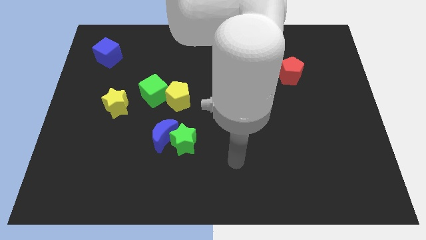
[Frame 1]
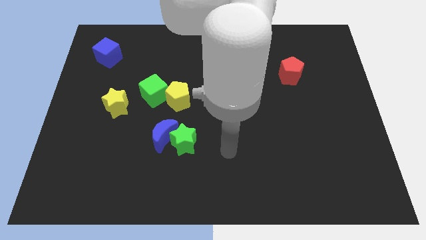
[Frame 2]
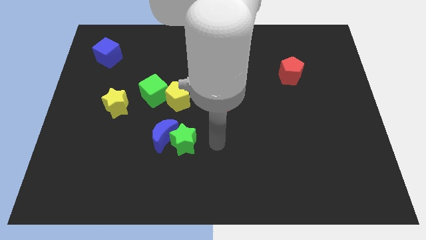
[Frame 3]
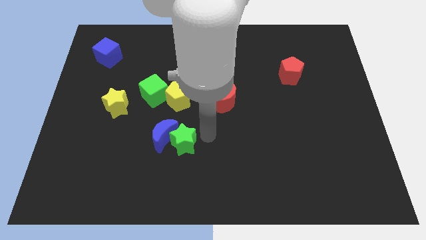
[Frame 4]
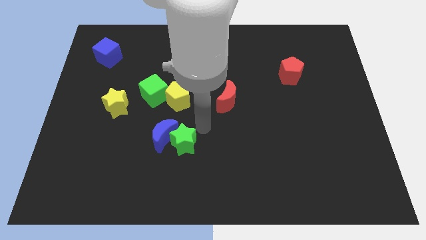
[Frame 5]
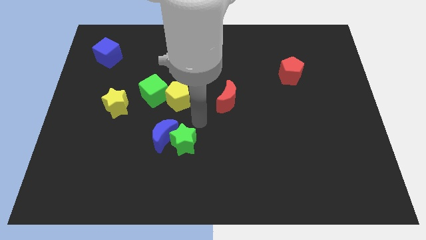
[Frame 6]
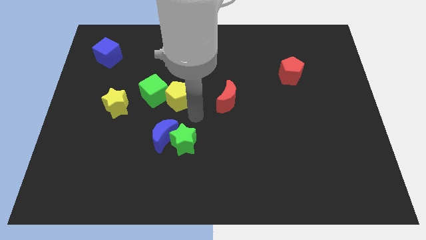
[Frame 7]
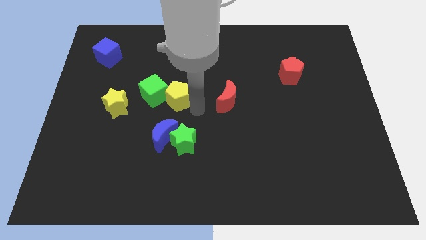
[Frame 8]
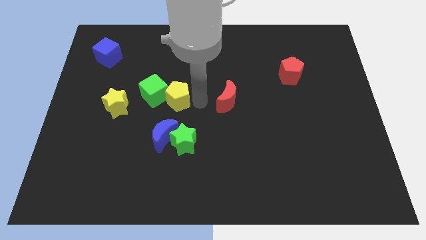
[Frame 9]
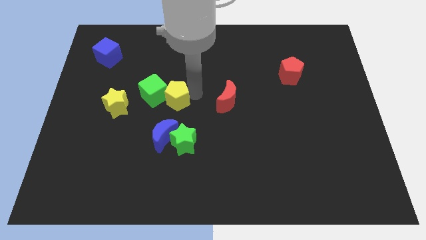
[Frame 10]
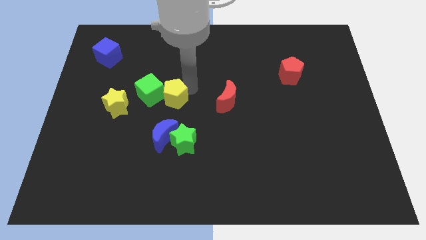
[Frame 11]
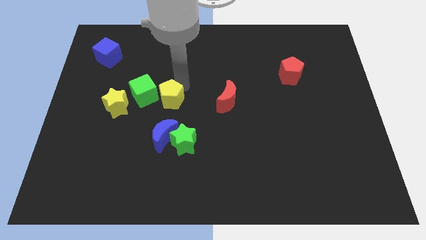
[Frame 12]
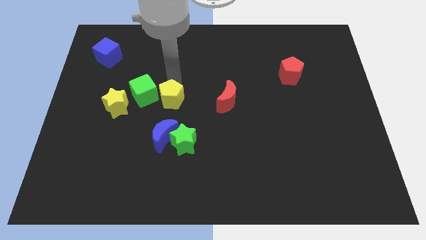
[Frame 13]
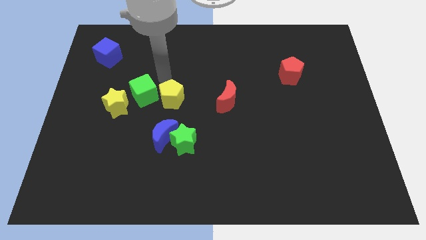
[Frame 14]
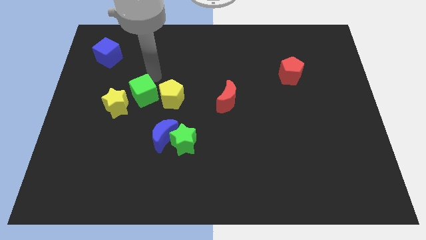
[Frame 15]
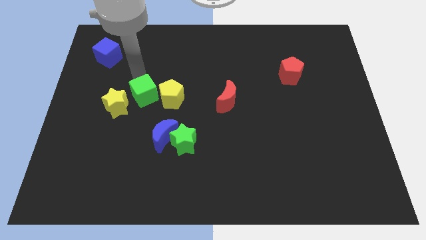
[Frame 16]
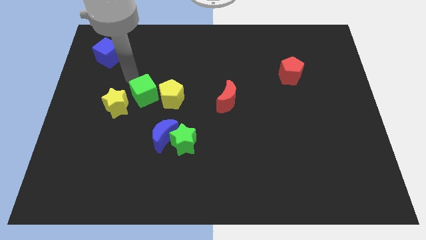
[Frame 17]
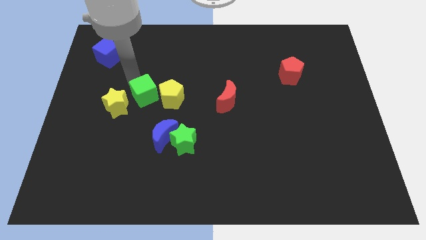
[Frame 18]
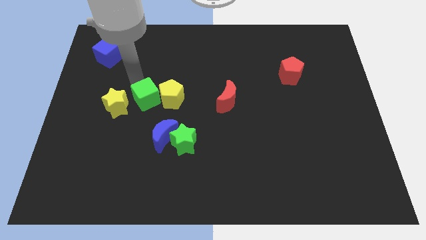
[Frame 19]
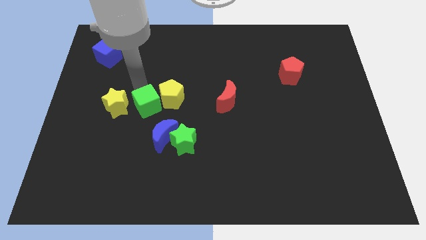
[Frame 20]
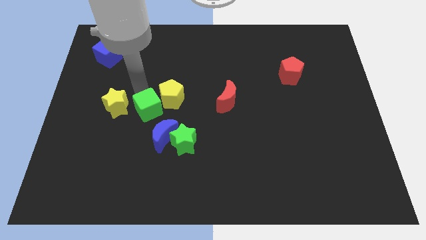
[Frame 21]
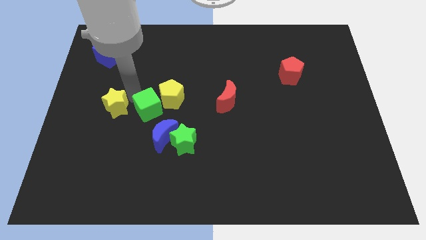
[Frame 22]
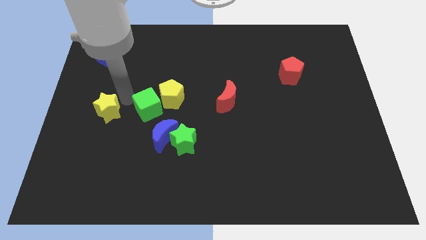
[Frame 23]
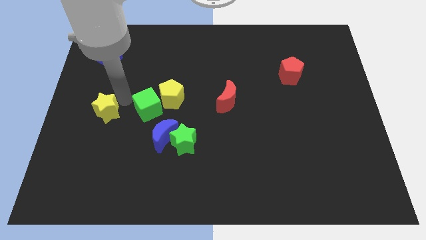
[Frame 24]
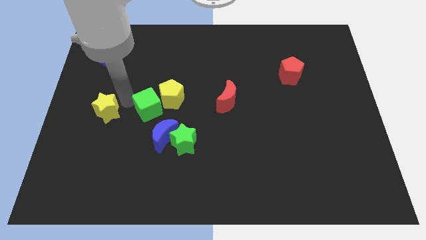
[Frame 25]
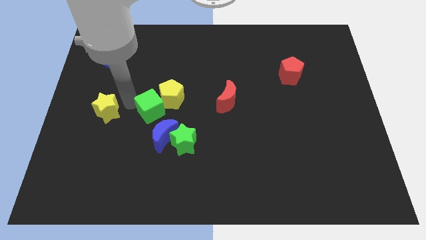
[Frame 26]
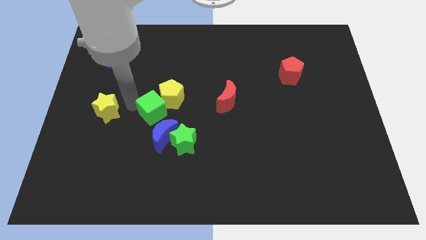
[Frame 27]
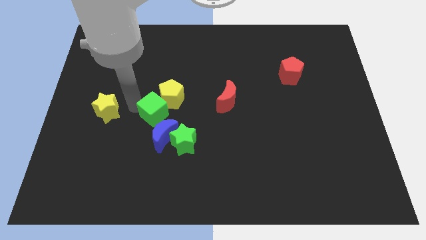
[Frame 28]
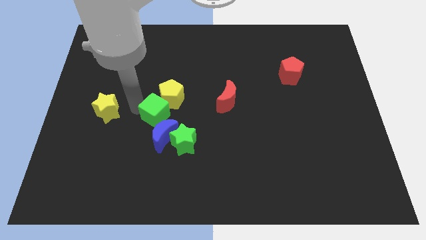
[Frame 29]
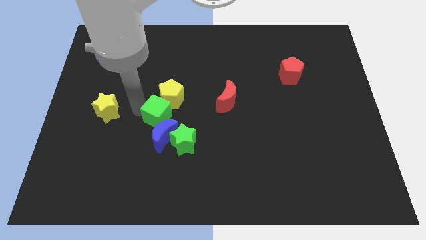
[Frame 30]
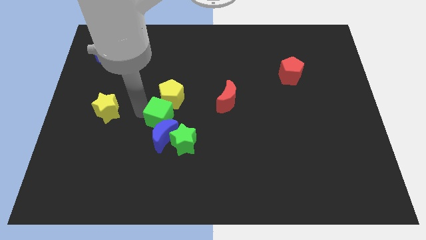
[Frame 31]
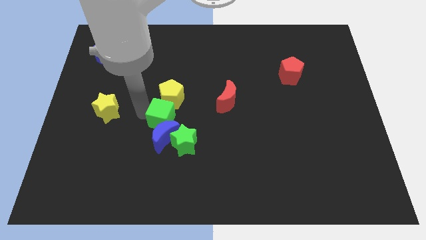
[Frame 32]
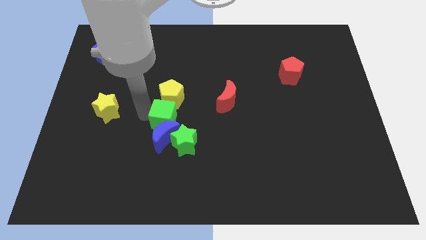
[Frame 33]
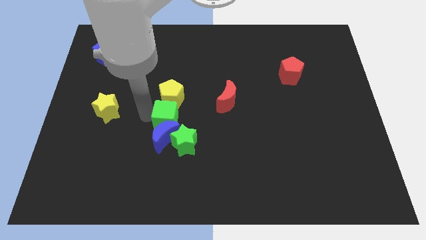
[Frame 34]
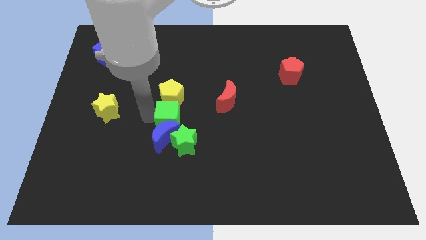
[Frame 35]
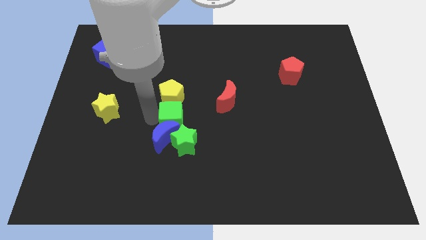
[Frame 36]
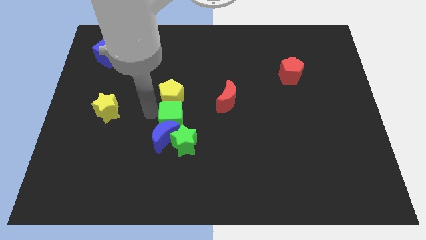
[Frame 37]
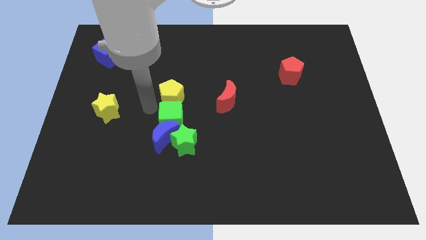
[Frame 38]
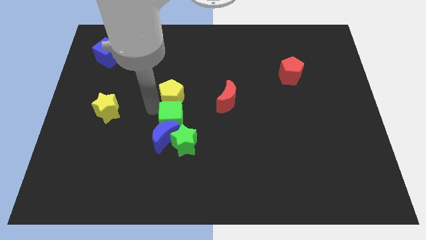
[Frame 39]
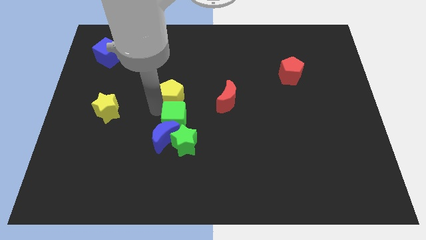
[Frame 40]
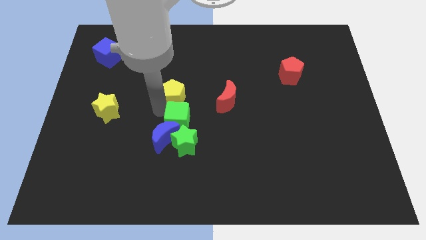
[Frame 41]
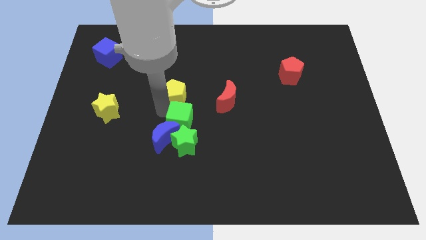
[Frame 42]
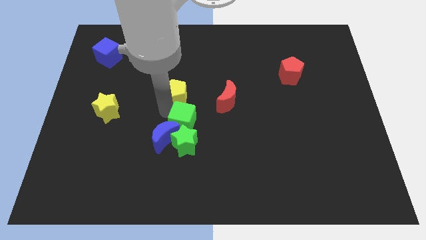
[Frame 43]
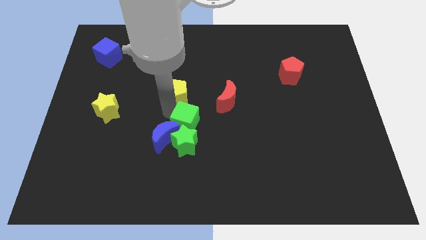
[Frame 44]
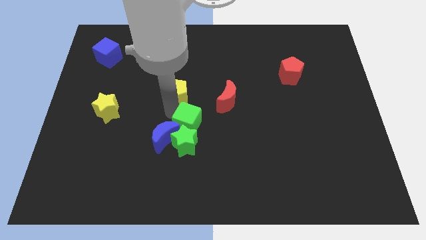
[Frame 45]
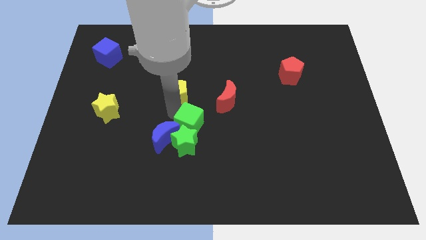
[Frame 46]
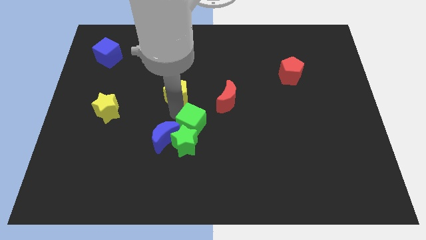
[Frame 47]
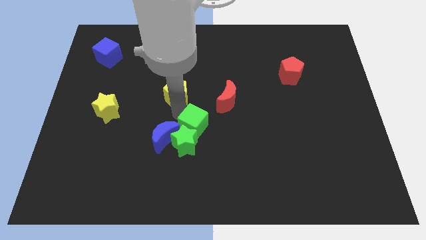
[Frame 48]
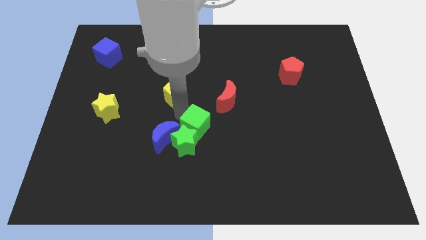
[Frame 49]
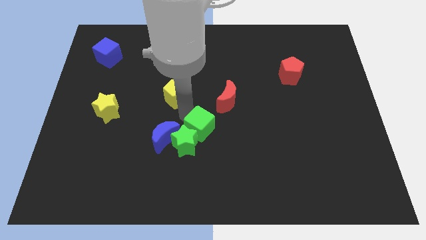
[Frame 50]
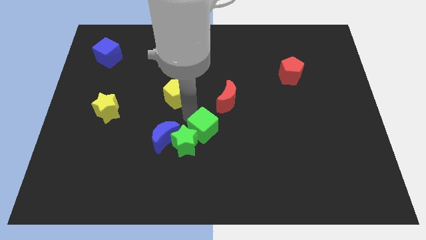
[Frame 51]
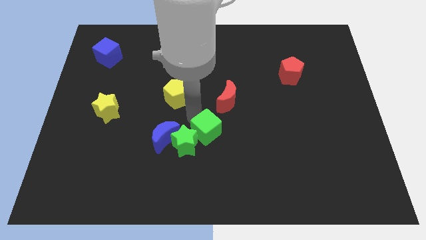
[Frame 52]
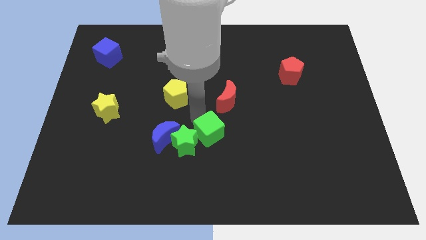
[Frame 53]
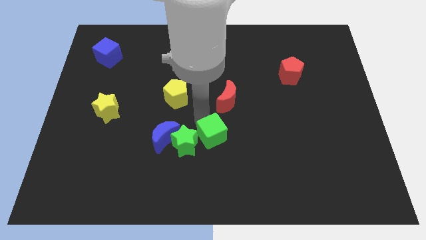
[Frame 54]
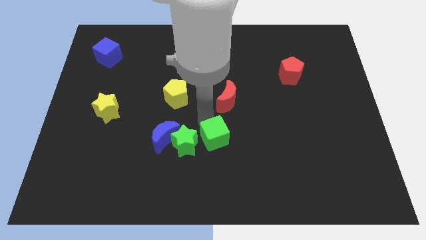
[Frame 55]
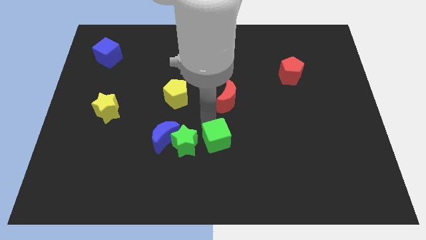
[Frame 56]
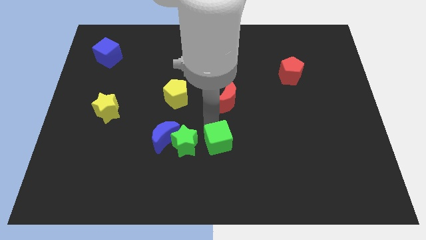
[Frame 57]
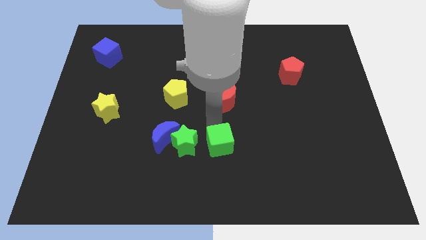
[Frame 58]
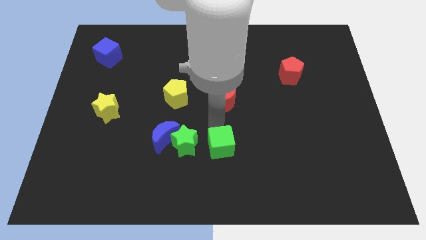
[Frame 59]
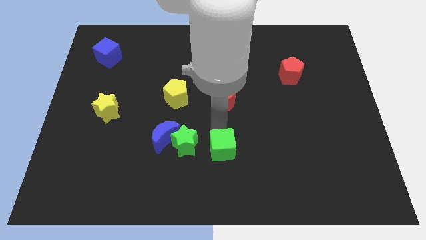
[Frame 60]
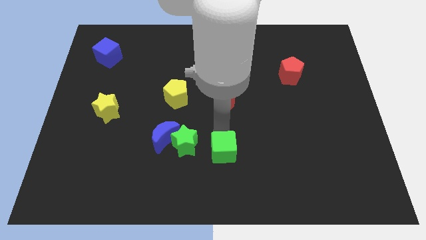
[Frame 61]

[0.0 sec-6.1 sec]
put the green cube diagonally down and to the right of the green star
